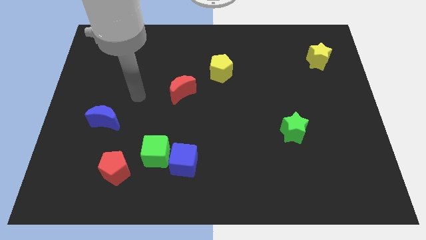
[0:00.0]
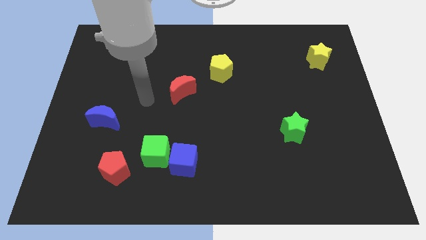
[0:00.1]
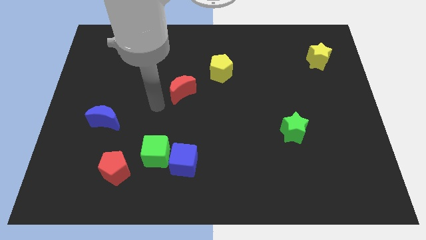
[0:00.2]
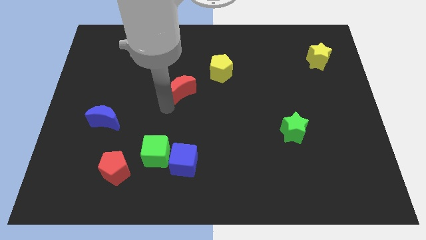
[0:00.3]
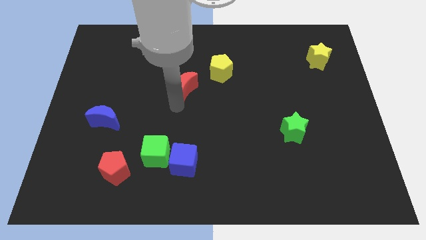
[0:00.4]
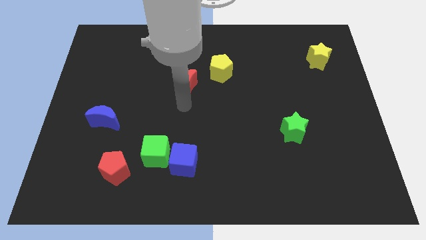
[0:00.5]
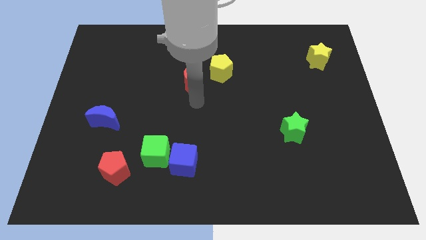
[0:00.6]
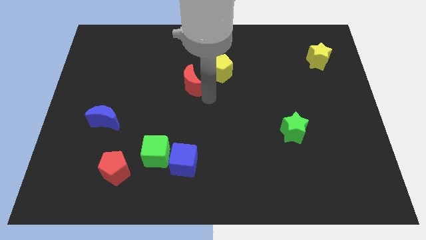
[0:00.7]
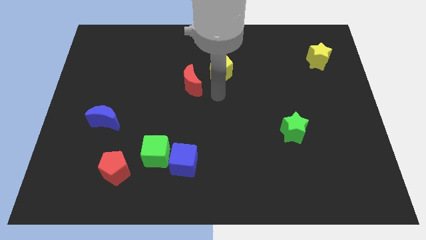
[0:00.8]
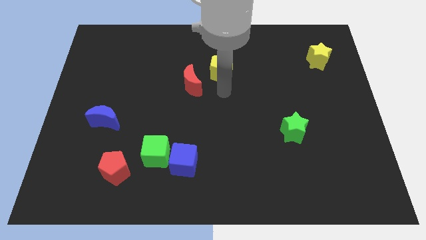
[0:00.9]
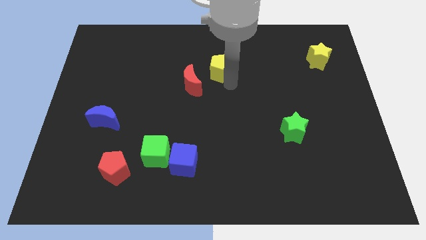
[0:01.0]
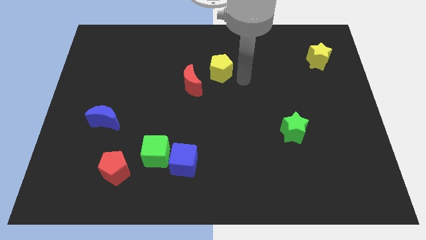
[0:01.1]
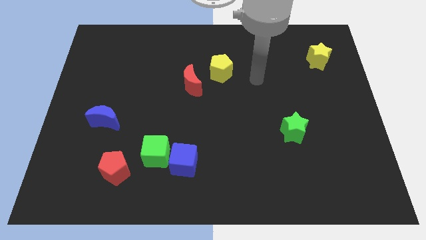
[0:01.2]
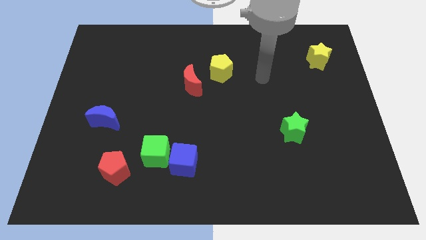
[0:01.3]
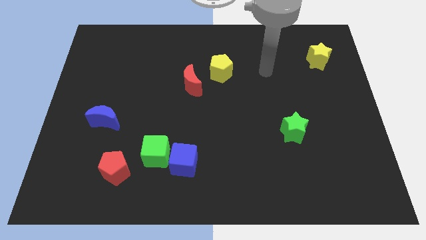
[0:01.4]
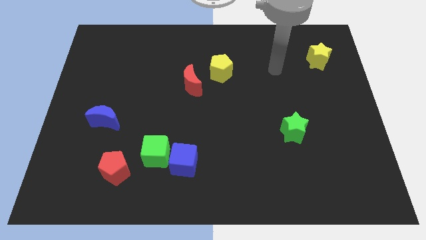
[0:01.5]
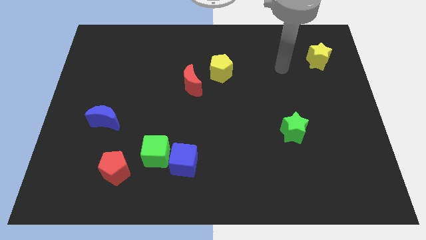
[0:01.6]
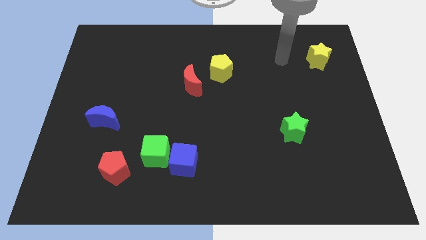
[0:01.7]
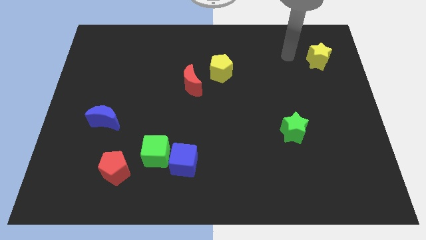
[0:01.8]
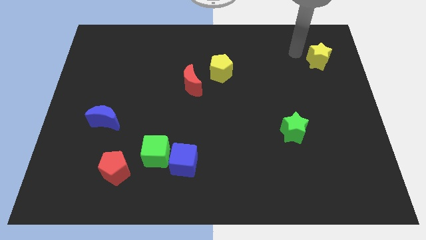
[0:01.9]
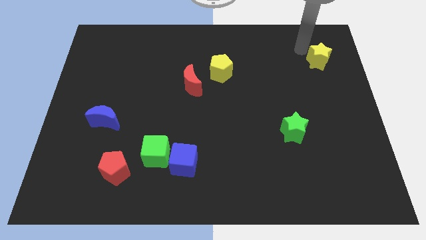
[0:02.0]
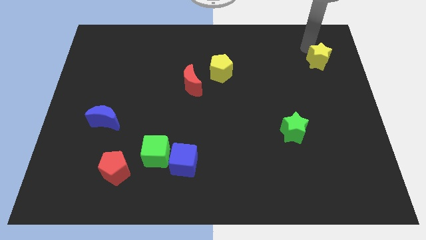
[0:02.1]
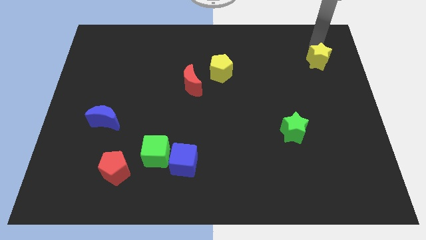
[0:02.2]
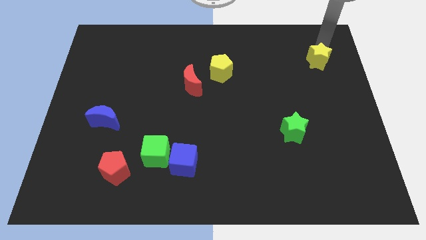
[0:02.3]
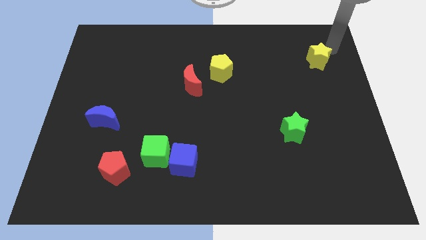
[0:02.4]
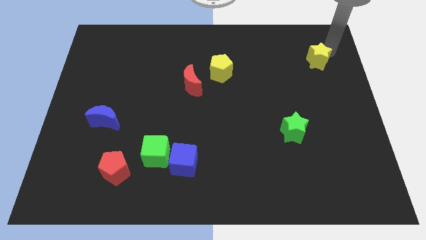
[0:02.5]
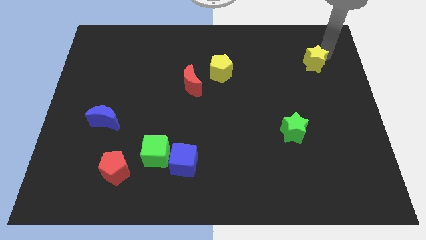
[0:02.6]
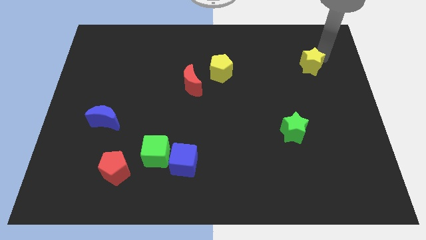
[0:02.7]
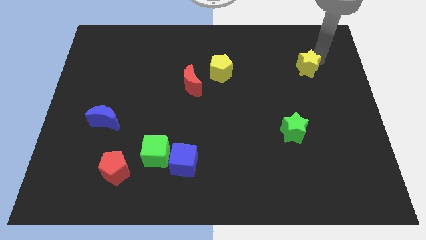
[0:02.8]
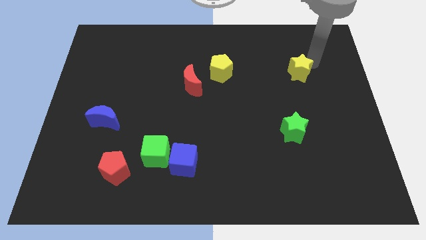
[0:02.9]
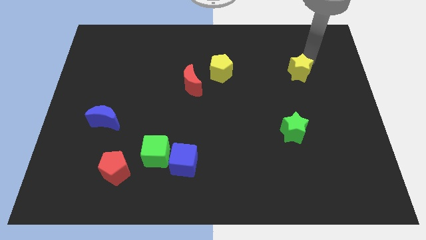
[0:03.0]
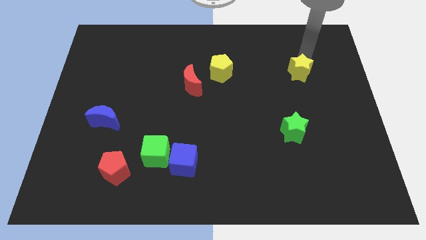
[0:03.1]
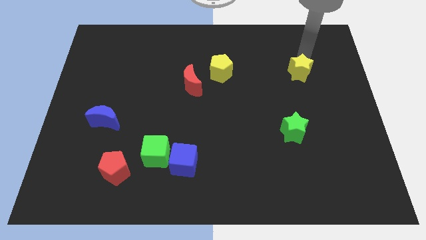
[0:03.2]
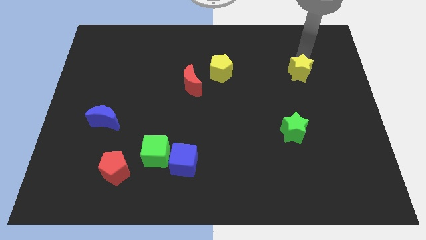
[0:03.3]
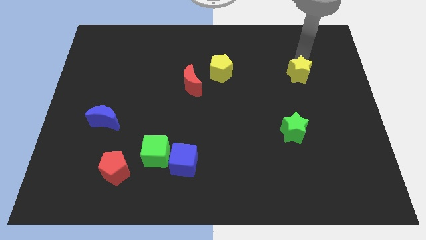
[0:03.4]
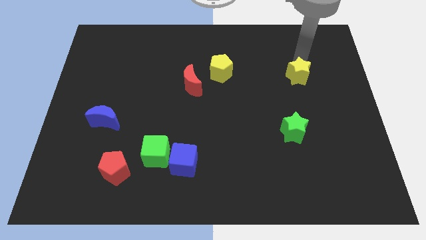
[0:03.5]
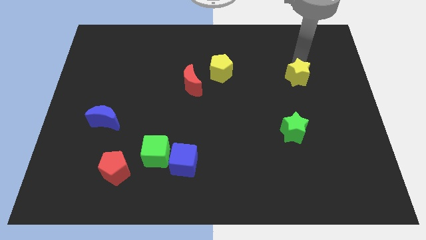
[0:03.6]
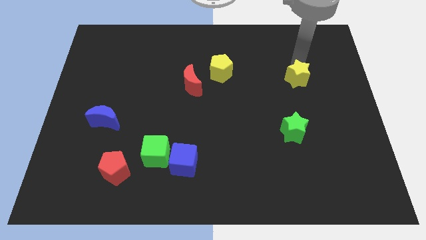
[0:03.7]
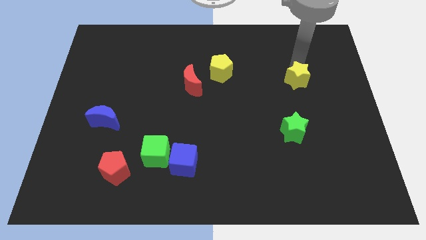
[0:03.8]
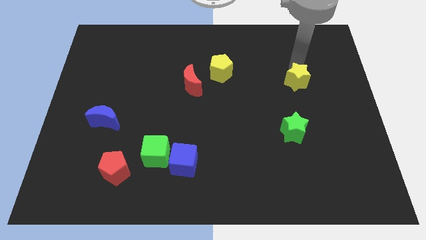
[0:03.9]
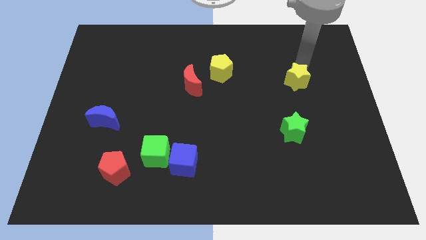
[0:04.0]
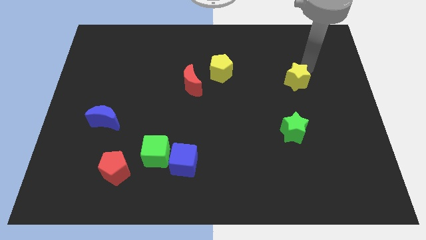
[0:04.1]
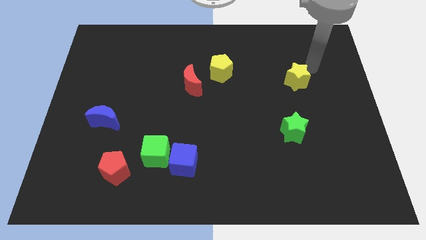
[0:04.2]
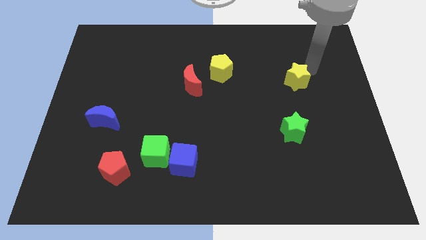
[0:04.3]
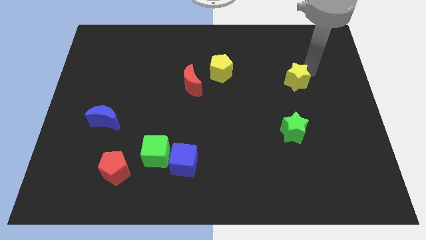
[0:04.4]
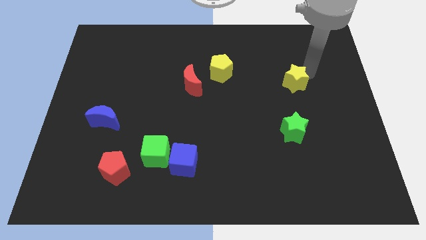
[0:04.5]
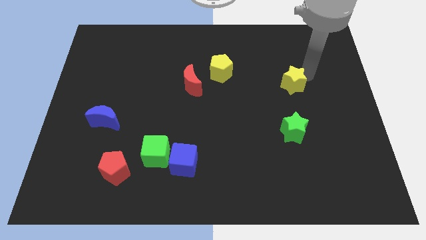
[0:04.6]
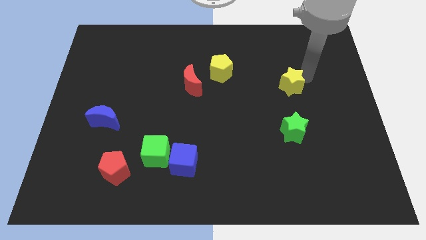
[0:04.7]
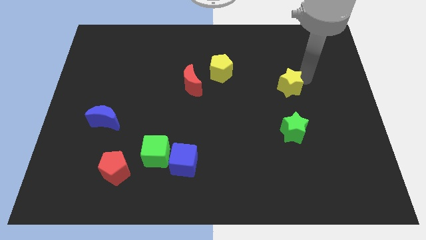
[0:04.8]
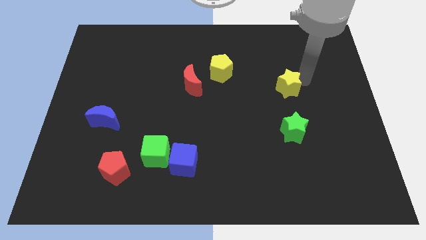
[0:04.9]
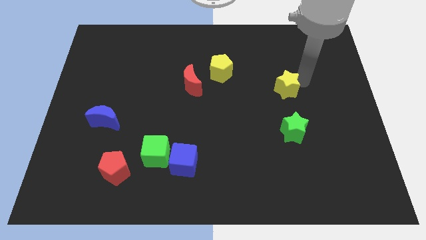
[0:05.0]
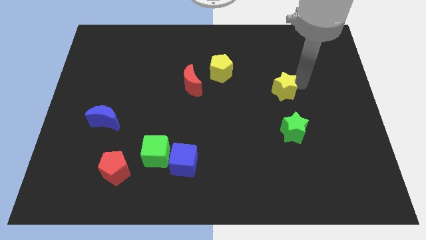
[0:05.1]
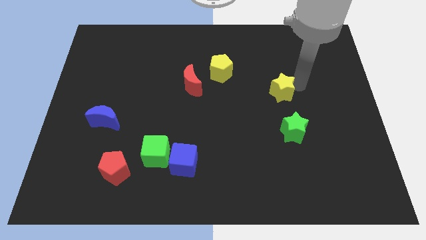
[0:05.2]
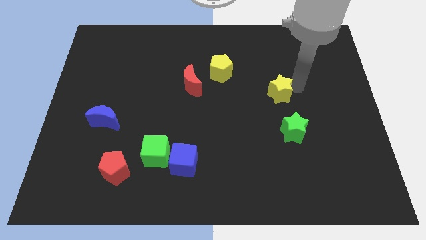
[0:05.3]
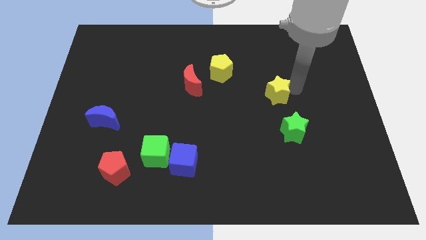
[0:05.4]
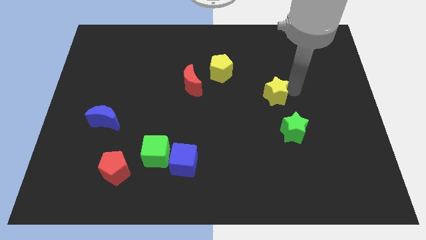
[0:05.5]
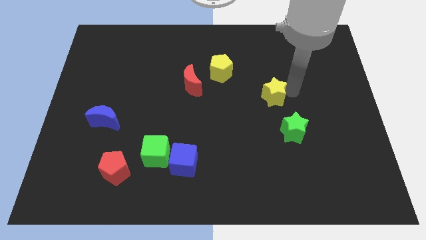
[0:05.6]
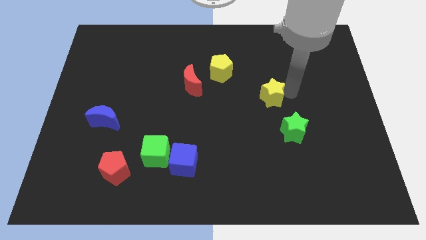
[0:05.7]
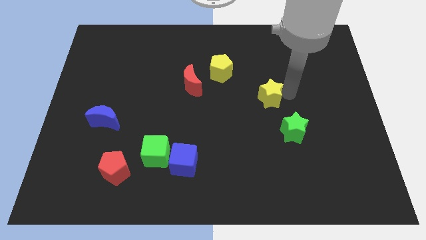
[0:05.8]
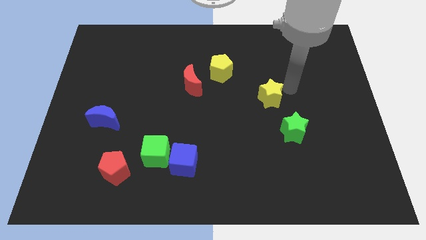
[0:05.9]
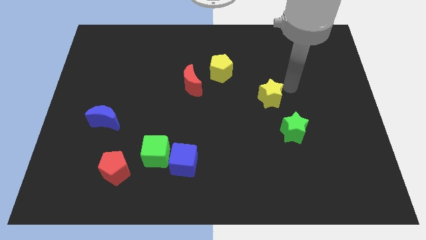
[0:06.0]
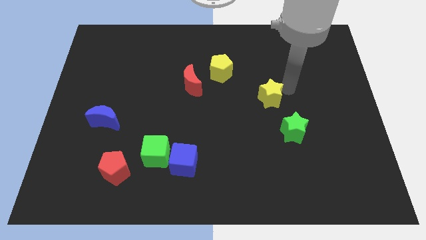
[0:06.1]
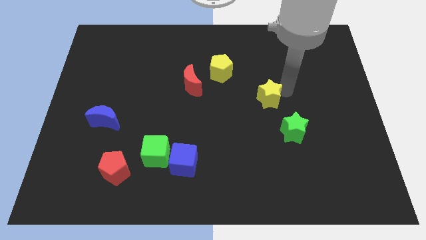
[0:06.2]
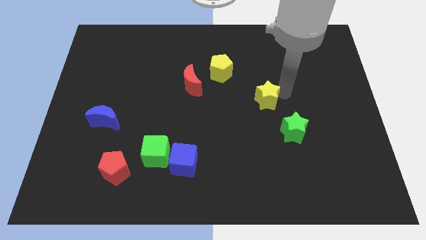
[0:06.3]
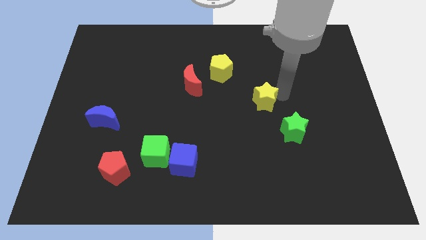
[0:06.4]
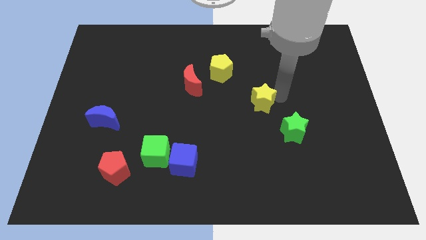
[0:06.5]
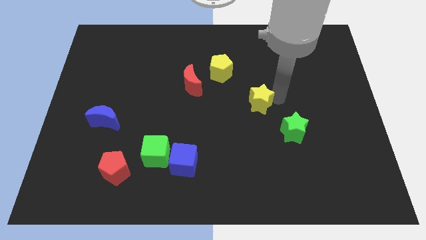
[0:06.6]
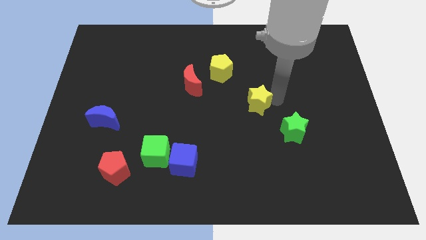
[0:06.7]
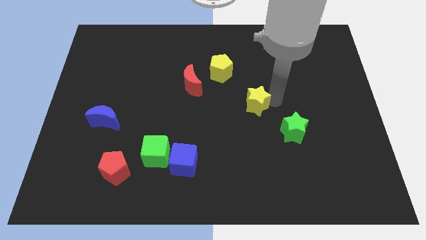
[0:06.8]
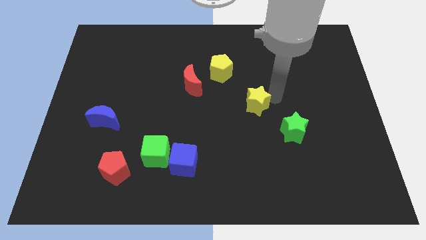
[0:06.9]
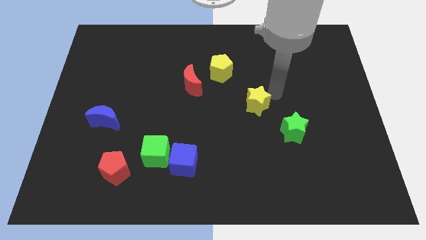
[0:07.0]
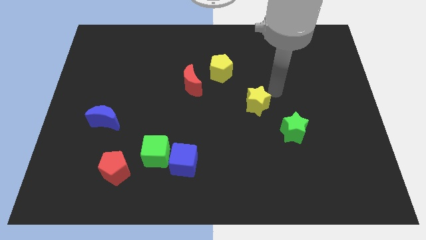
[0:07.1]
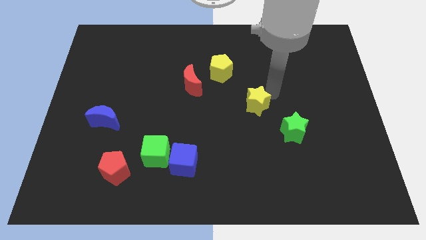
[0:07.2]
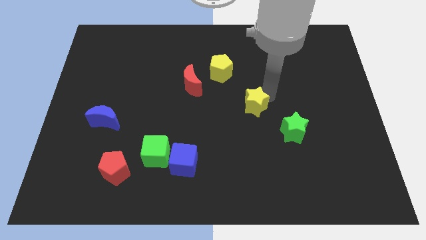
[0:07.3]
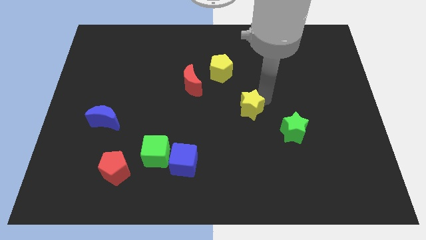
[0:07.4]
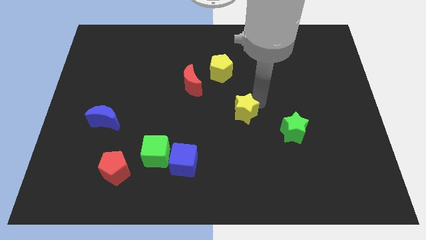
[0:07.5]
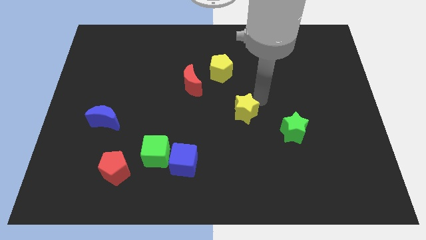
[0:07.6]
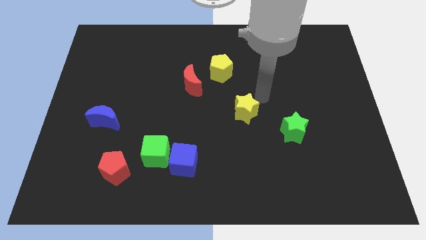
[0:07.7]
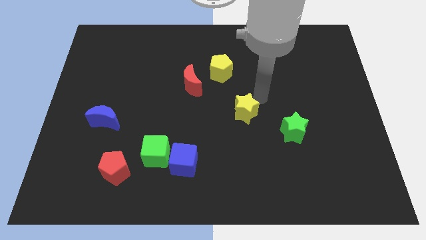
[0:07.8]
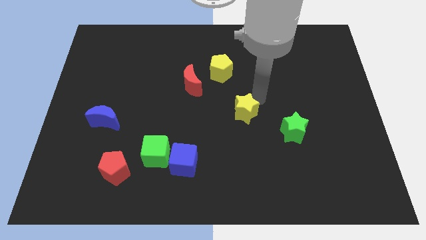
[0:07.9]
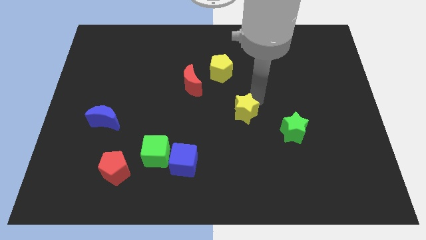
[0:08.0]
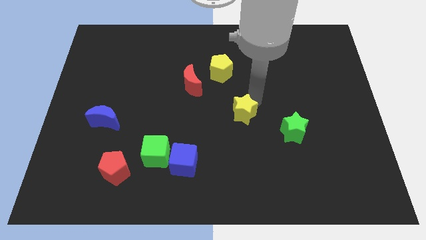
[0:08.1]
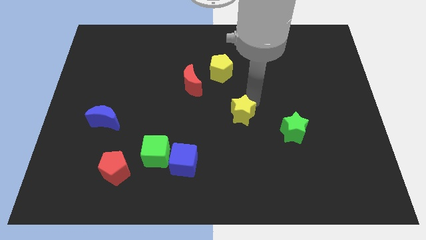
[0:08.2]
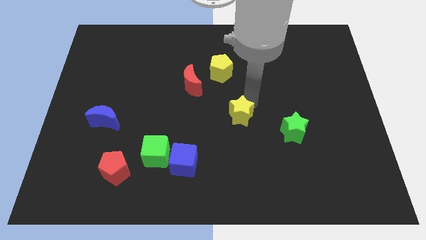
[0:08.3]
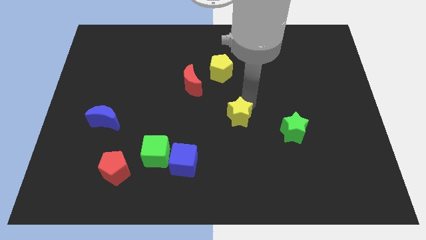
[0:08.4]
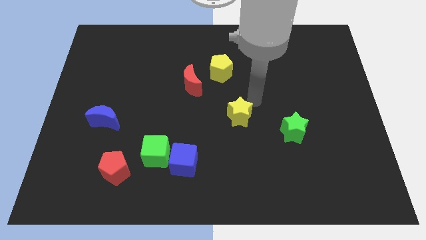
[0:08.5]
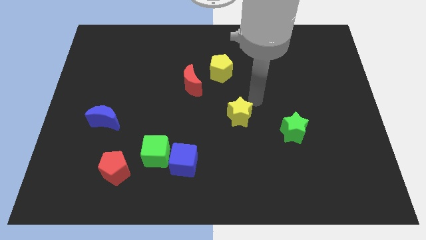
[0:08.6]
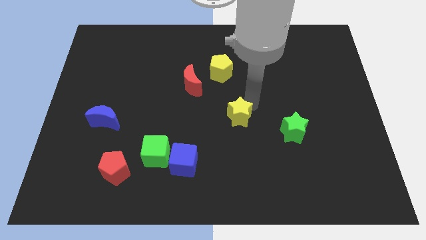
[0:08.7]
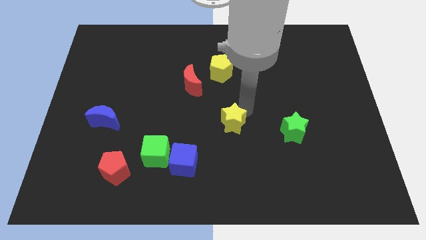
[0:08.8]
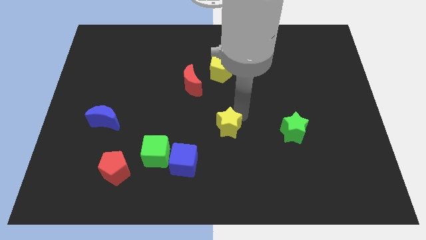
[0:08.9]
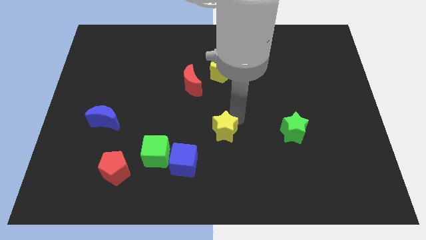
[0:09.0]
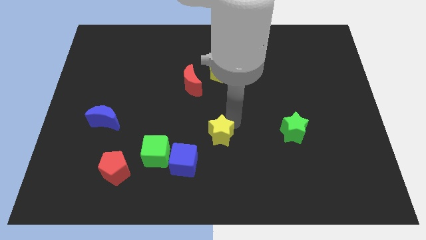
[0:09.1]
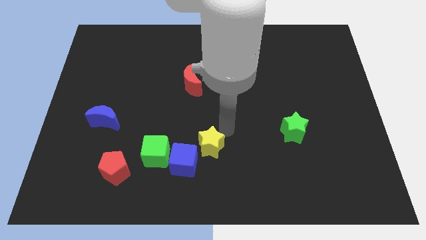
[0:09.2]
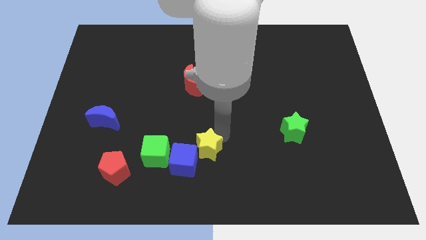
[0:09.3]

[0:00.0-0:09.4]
move the yellow star next to the blue cube
